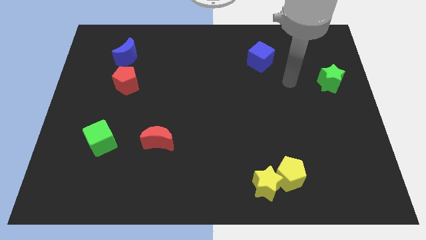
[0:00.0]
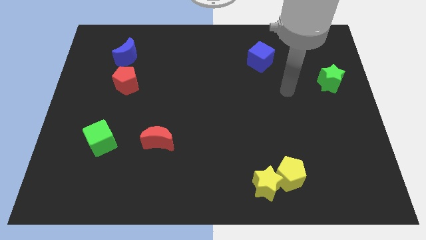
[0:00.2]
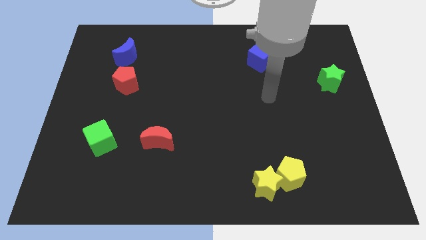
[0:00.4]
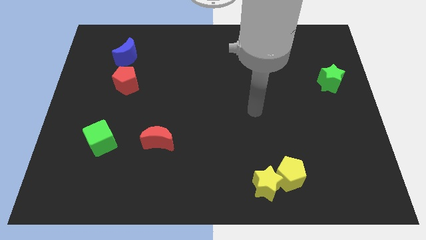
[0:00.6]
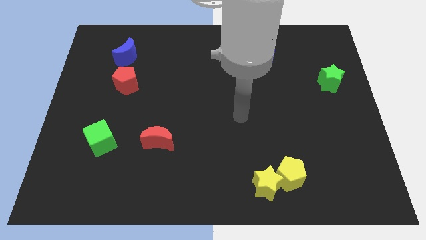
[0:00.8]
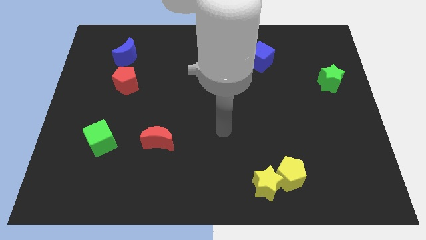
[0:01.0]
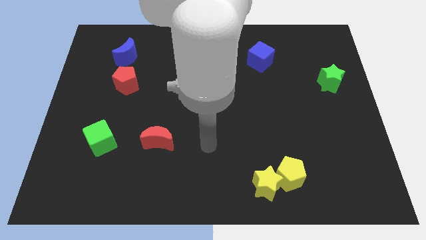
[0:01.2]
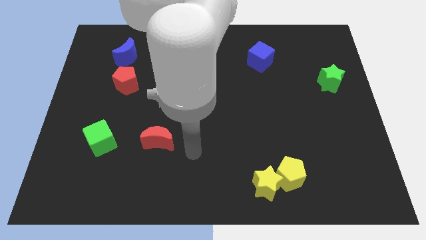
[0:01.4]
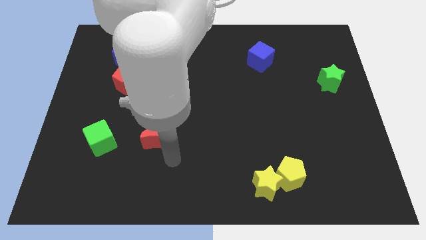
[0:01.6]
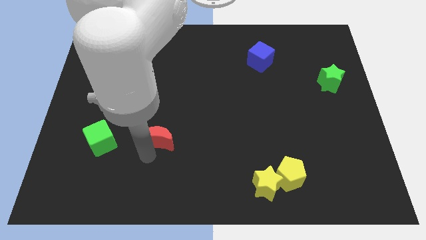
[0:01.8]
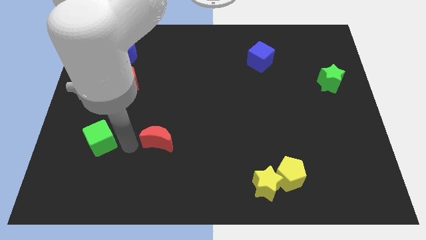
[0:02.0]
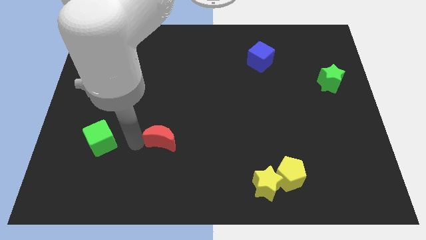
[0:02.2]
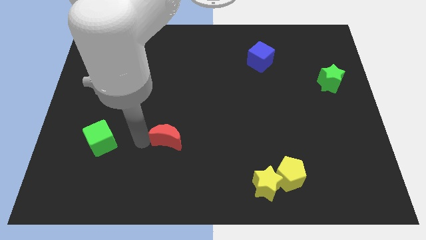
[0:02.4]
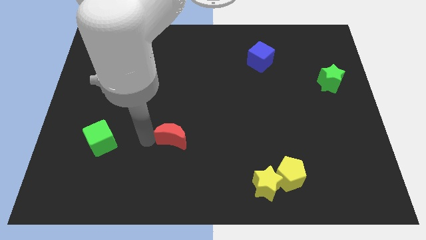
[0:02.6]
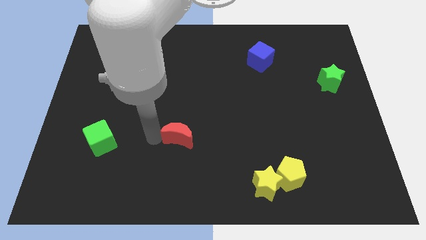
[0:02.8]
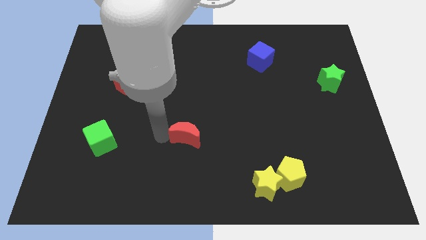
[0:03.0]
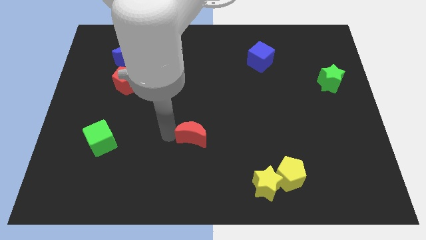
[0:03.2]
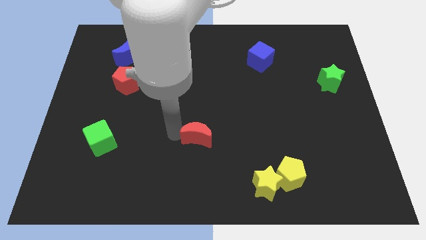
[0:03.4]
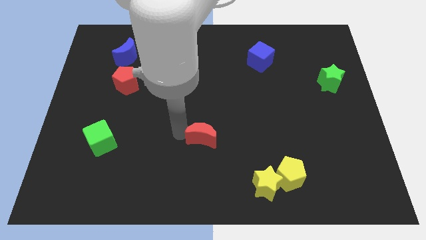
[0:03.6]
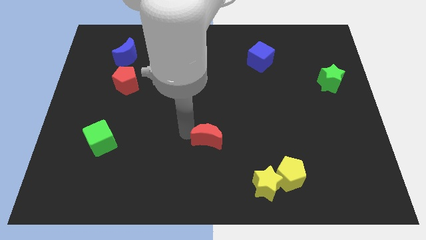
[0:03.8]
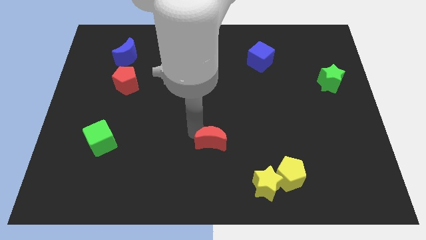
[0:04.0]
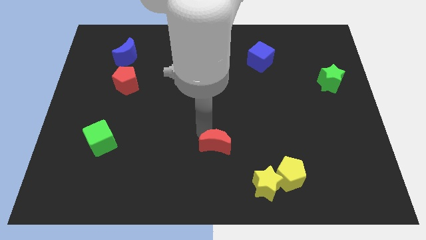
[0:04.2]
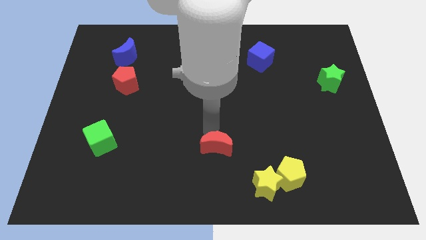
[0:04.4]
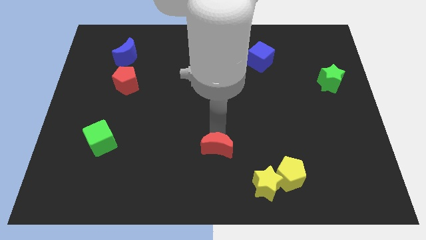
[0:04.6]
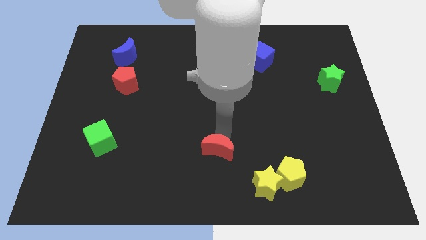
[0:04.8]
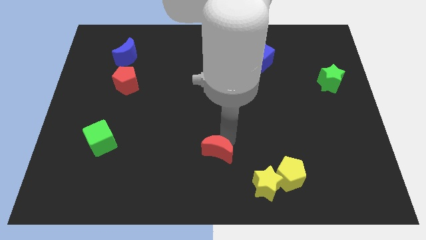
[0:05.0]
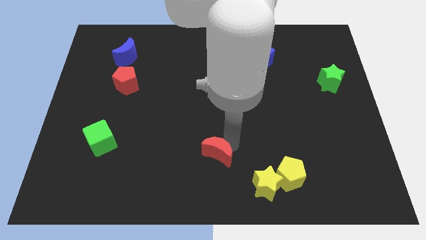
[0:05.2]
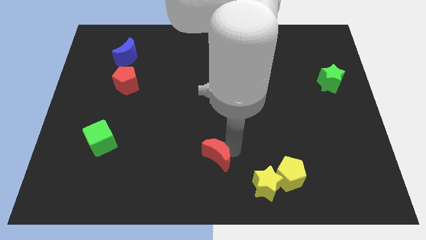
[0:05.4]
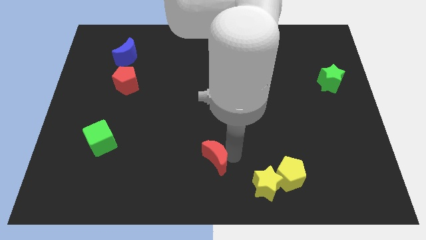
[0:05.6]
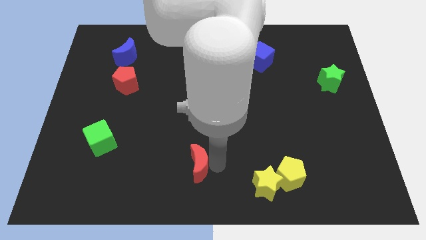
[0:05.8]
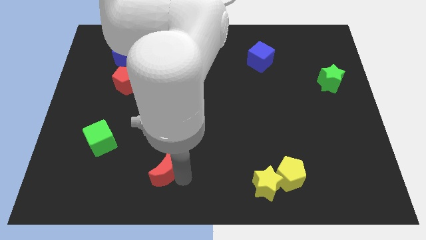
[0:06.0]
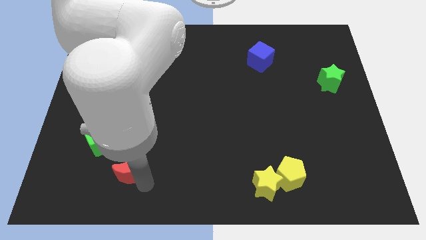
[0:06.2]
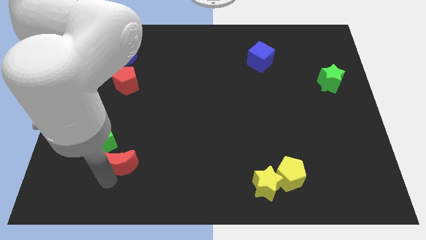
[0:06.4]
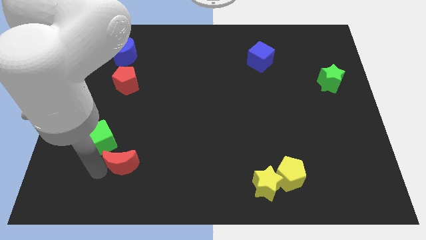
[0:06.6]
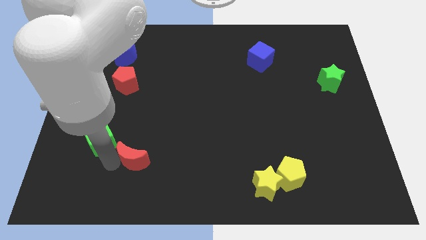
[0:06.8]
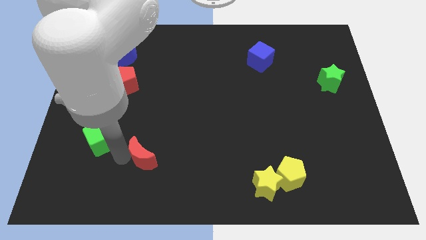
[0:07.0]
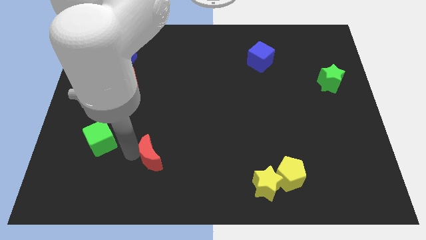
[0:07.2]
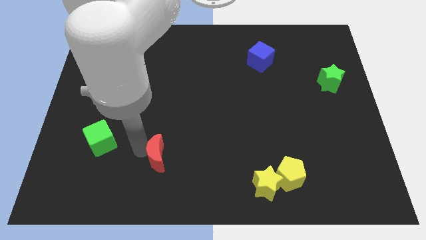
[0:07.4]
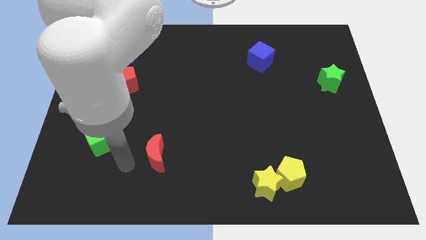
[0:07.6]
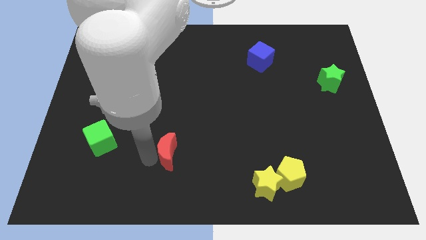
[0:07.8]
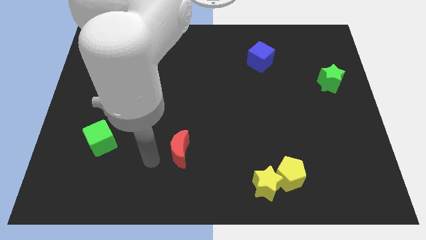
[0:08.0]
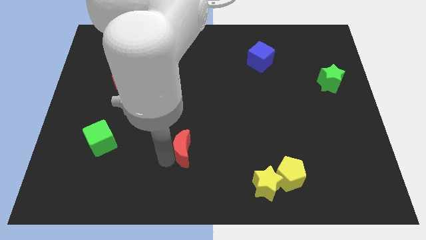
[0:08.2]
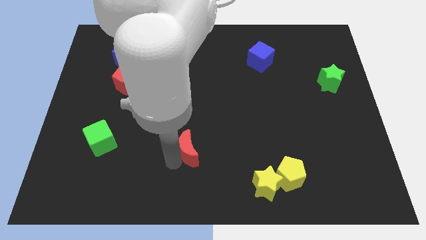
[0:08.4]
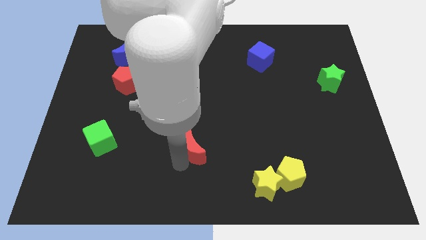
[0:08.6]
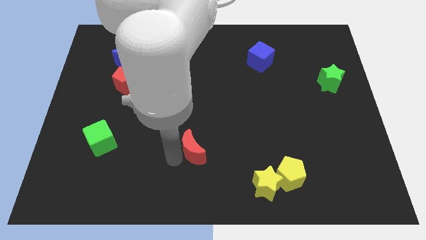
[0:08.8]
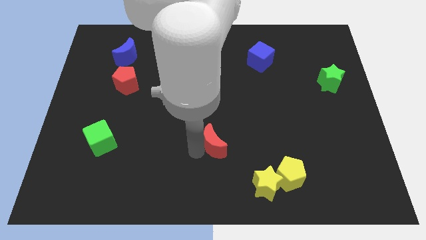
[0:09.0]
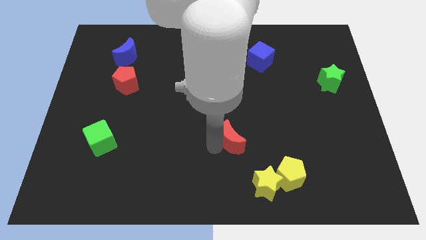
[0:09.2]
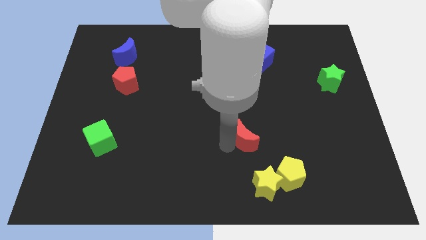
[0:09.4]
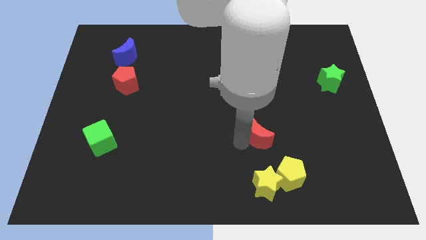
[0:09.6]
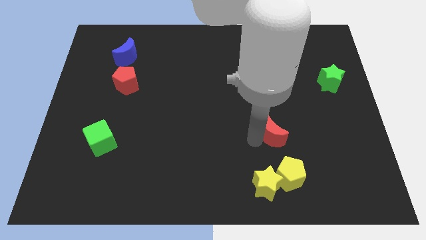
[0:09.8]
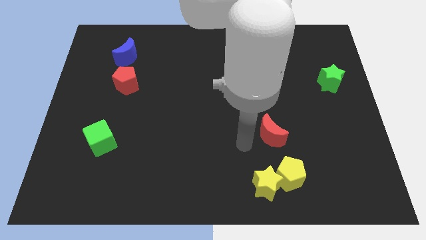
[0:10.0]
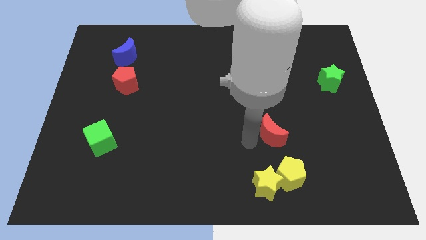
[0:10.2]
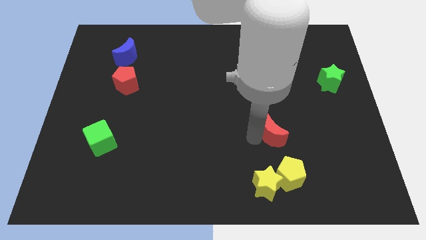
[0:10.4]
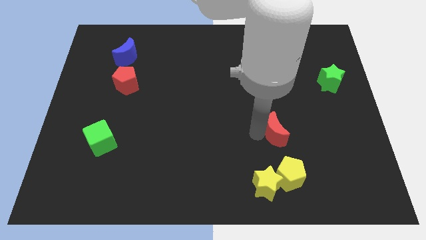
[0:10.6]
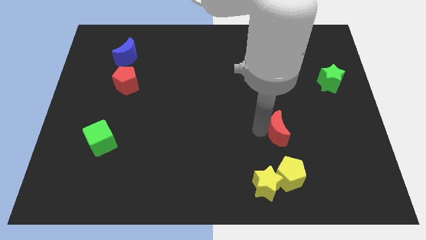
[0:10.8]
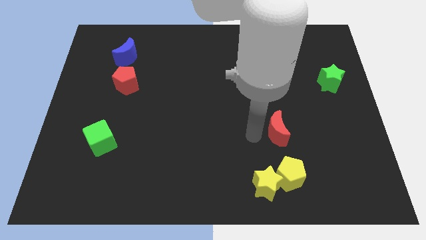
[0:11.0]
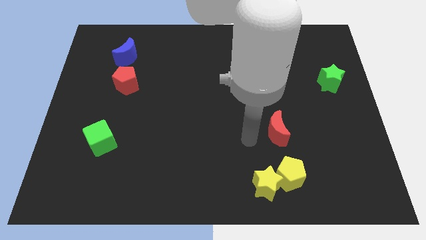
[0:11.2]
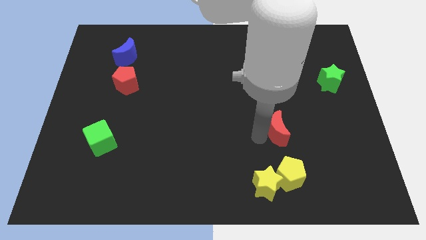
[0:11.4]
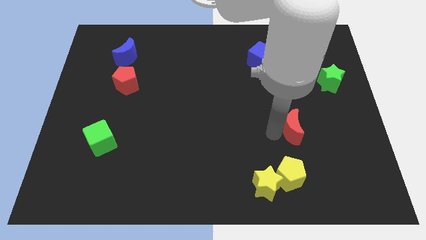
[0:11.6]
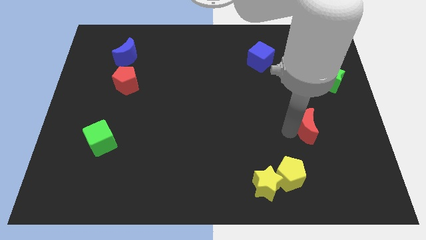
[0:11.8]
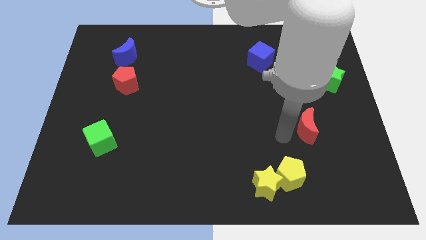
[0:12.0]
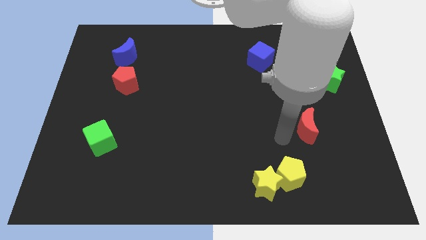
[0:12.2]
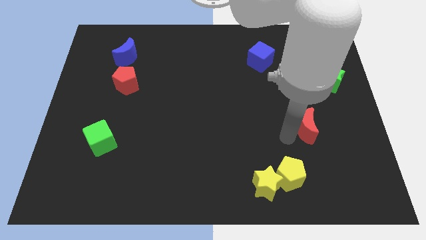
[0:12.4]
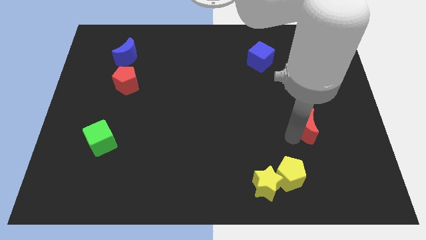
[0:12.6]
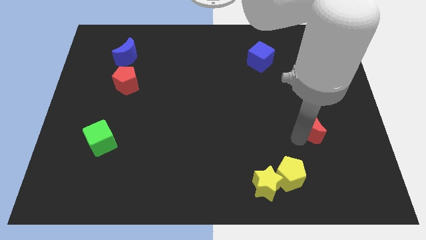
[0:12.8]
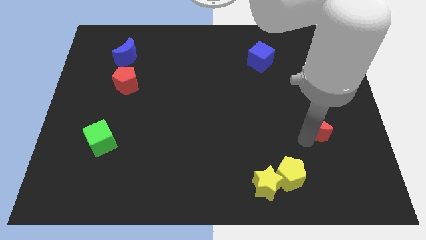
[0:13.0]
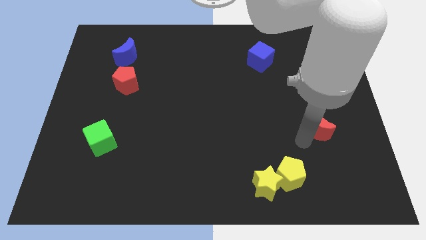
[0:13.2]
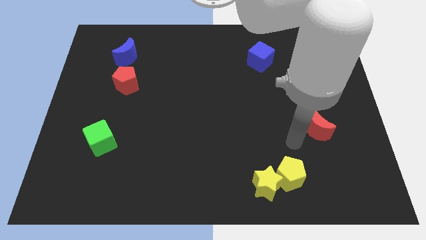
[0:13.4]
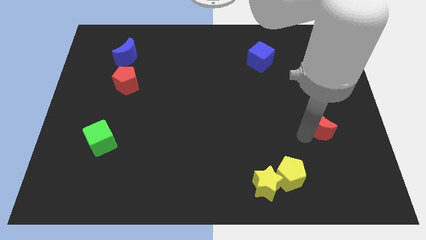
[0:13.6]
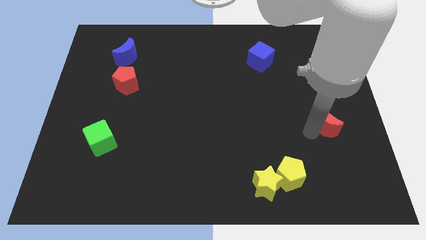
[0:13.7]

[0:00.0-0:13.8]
slide the red moon to the bottom side of the green star
